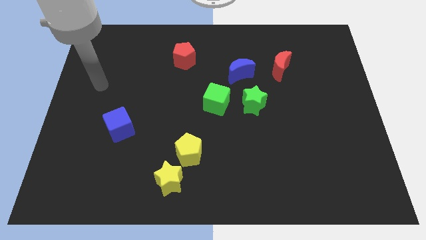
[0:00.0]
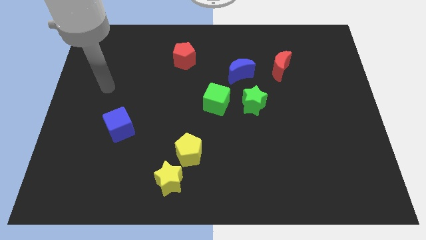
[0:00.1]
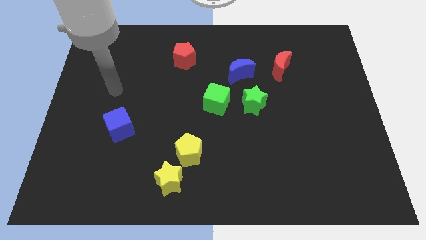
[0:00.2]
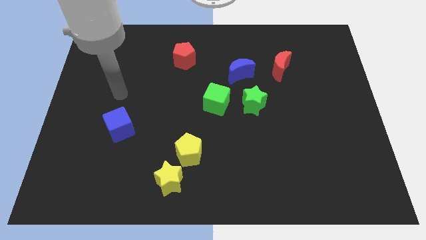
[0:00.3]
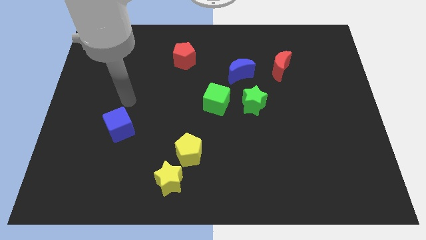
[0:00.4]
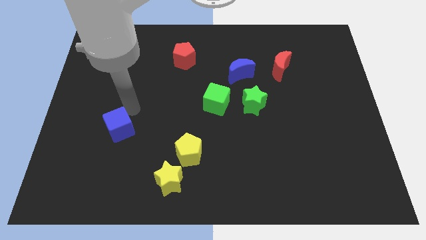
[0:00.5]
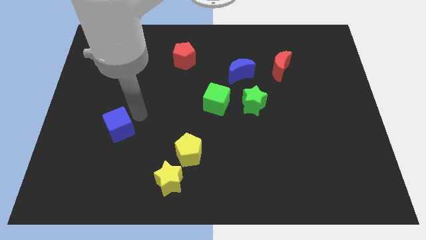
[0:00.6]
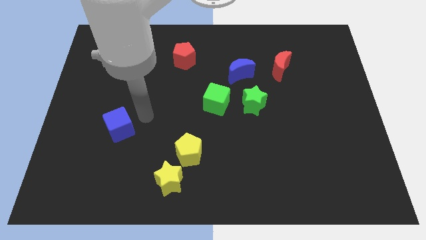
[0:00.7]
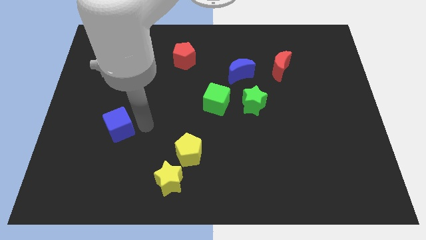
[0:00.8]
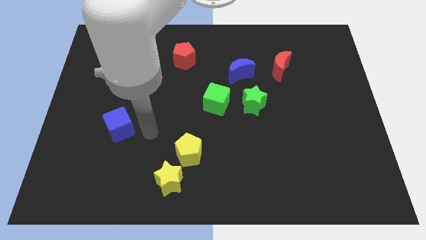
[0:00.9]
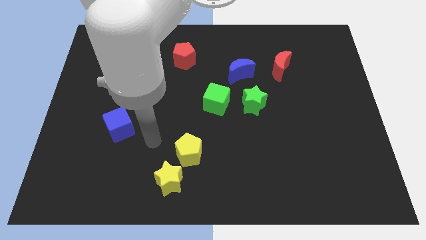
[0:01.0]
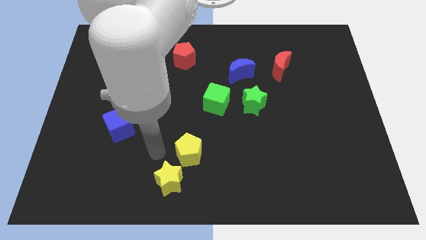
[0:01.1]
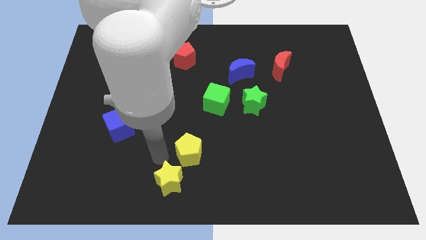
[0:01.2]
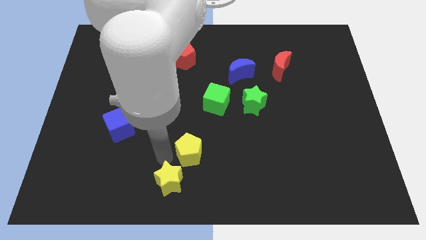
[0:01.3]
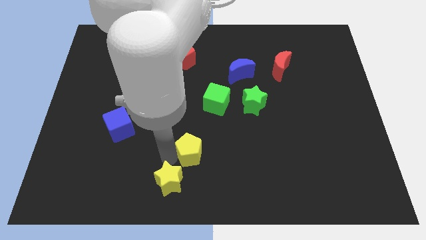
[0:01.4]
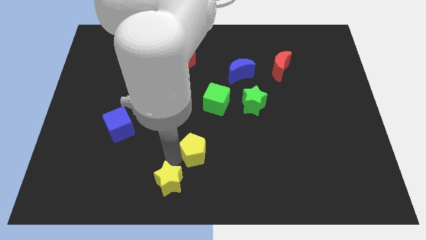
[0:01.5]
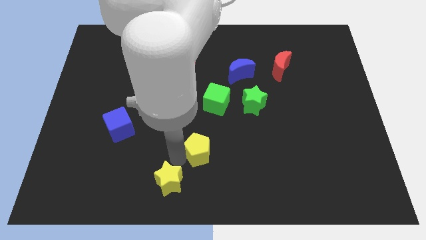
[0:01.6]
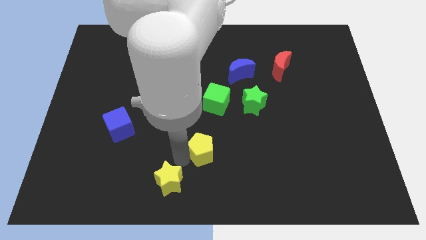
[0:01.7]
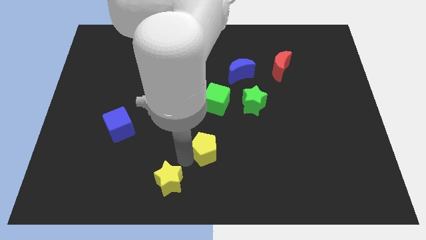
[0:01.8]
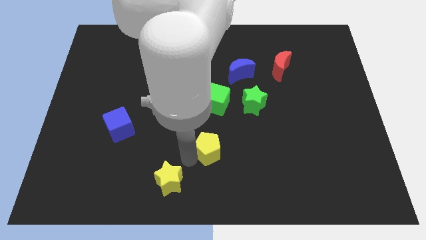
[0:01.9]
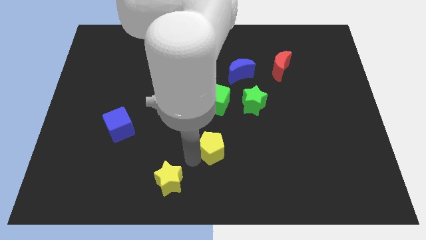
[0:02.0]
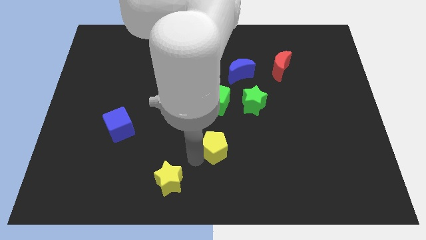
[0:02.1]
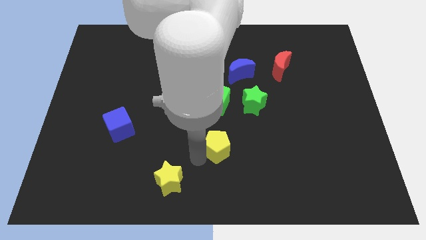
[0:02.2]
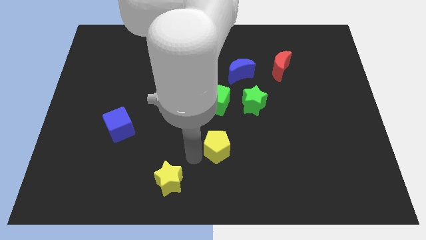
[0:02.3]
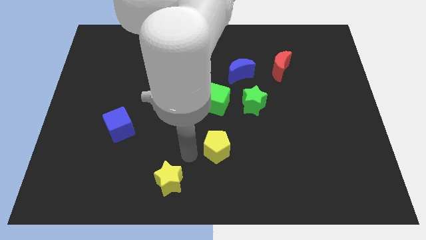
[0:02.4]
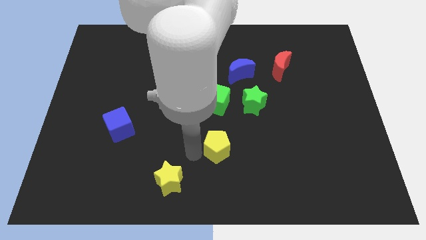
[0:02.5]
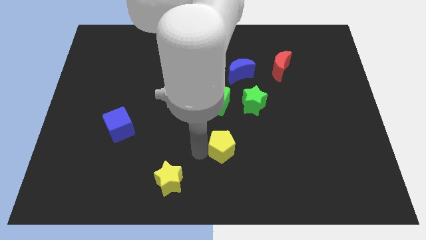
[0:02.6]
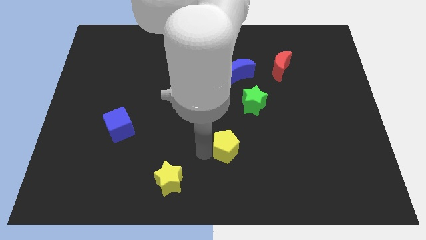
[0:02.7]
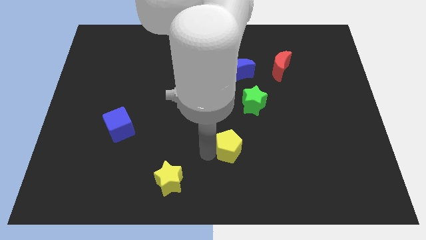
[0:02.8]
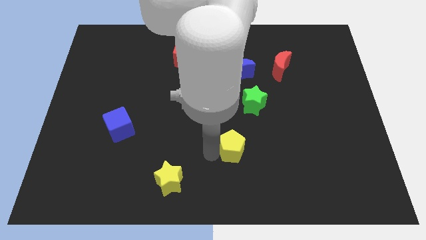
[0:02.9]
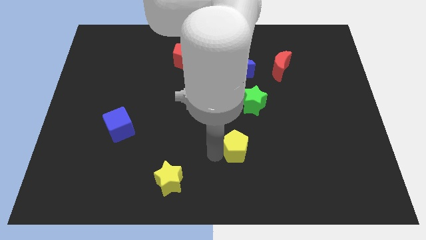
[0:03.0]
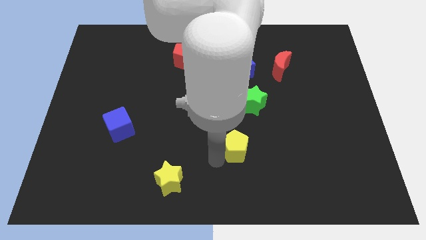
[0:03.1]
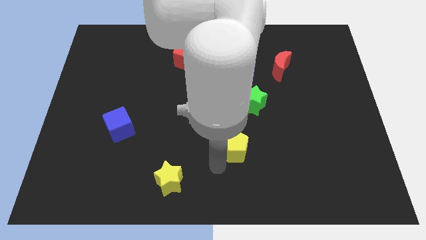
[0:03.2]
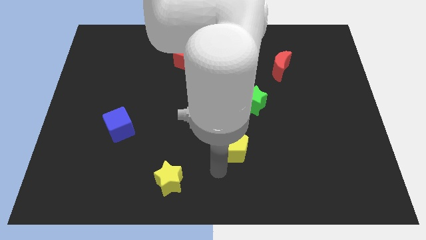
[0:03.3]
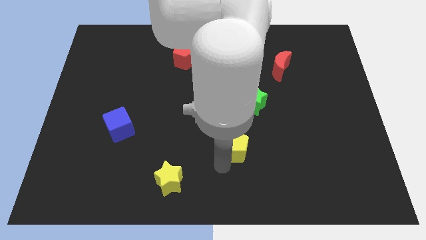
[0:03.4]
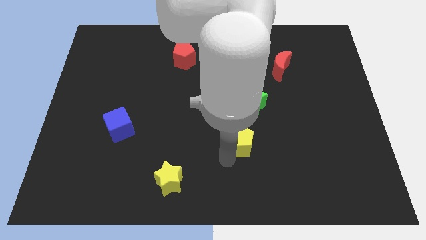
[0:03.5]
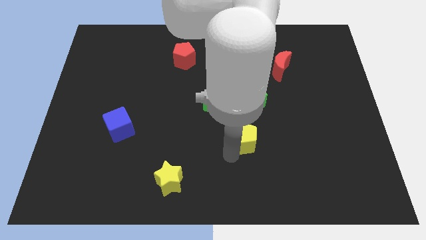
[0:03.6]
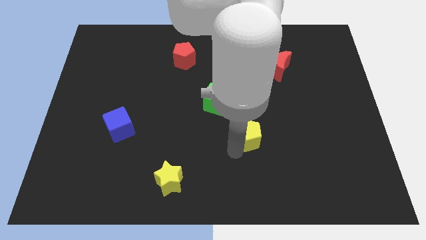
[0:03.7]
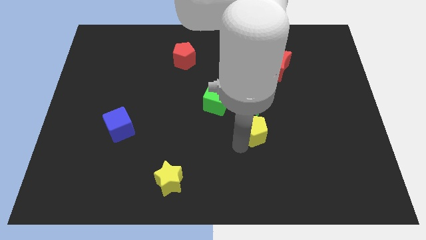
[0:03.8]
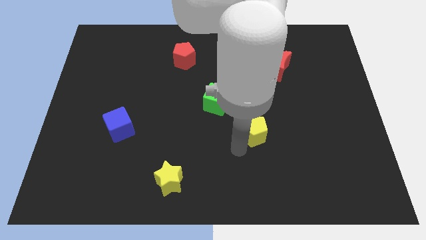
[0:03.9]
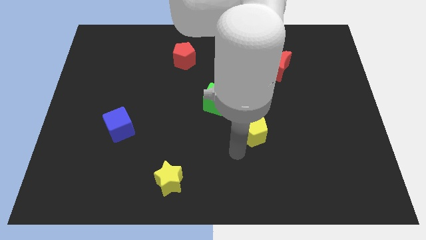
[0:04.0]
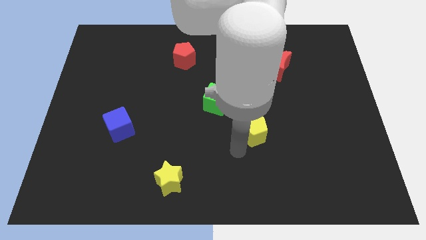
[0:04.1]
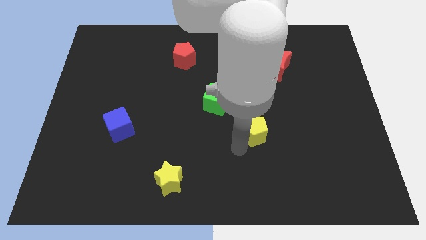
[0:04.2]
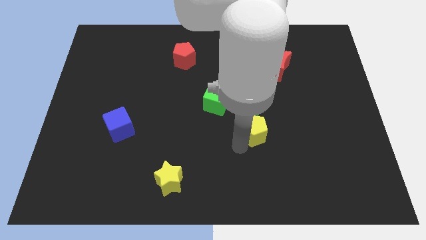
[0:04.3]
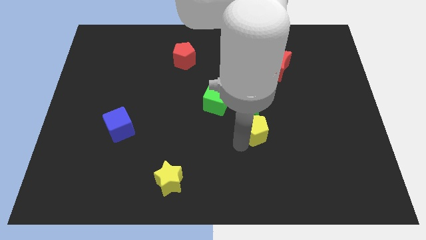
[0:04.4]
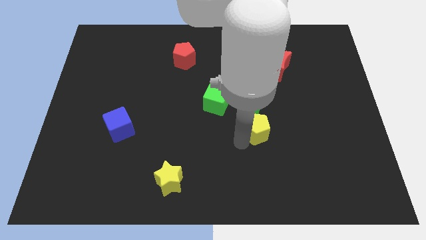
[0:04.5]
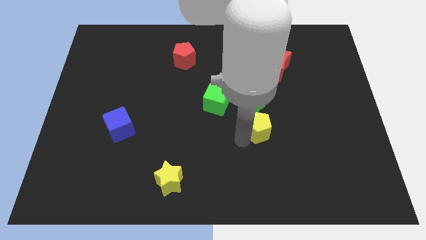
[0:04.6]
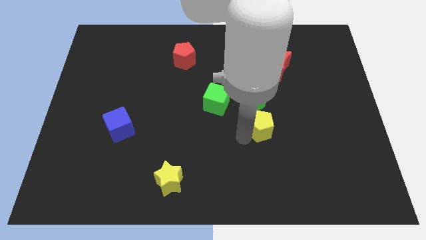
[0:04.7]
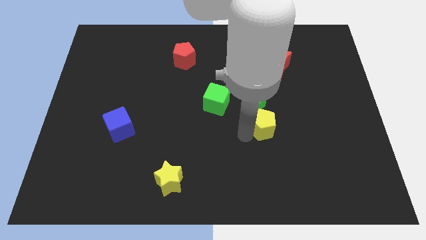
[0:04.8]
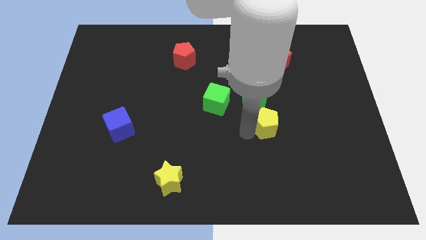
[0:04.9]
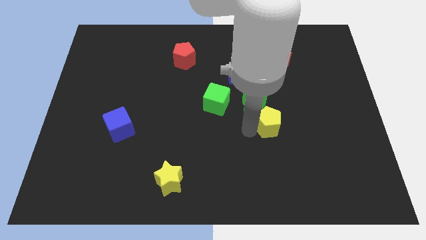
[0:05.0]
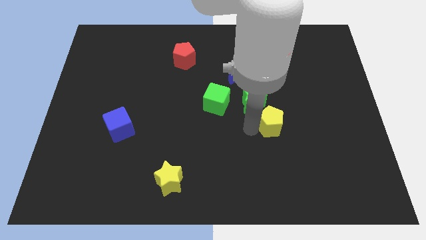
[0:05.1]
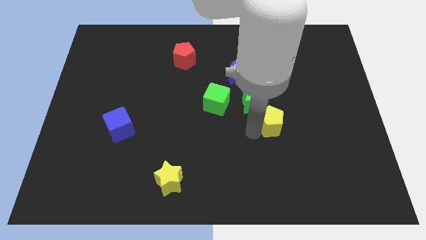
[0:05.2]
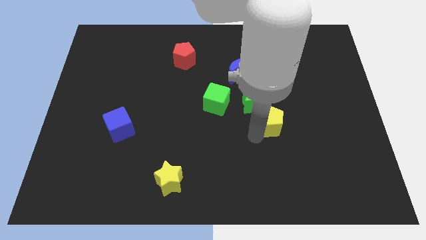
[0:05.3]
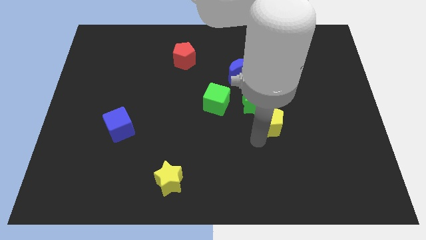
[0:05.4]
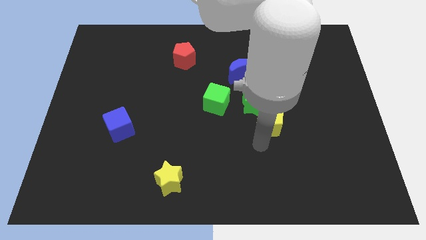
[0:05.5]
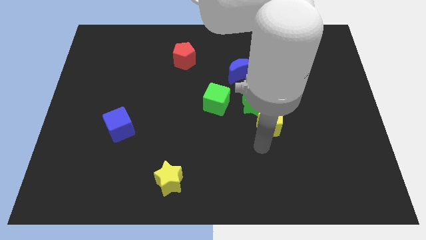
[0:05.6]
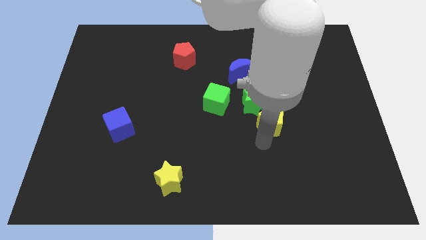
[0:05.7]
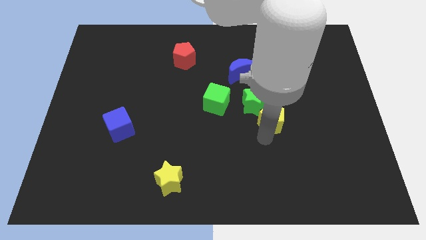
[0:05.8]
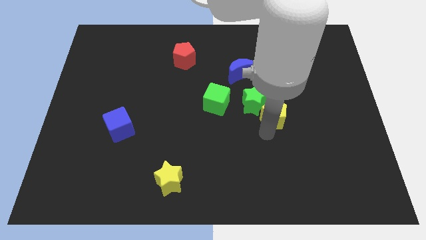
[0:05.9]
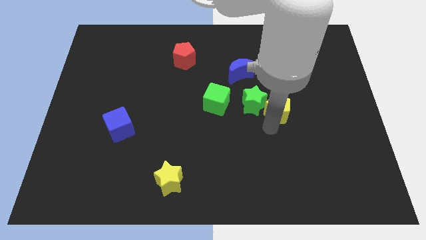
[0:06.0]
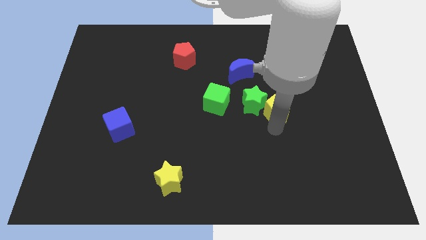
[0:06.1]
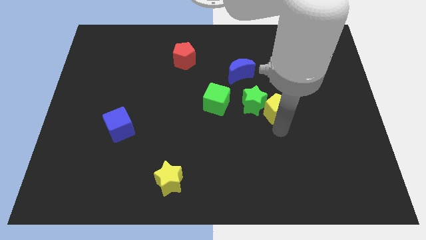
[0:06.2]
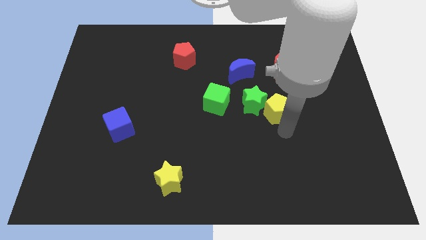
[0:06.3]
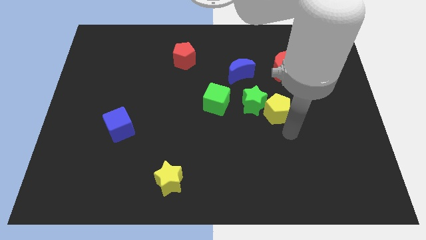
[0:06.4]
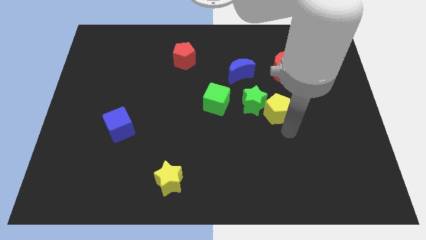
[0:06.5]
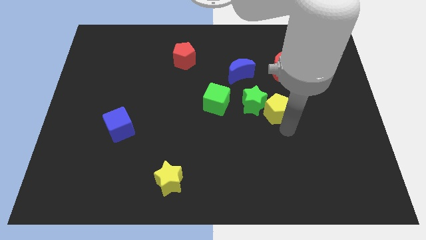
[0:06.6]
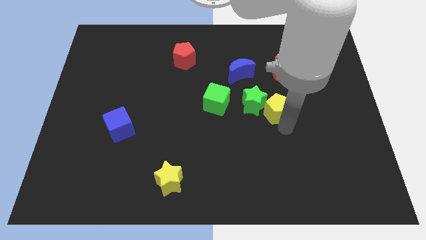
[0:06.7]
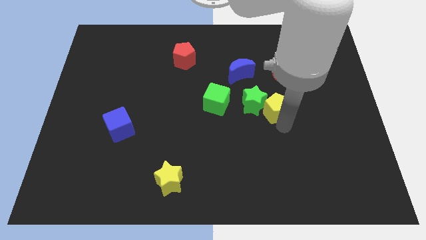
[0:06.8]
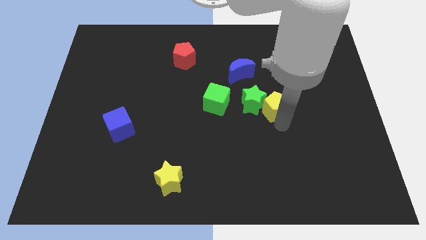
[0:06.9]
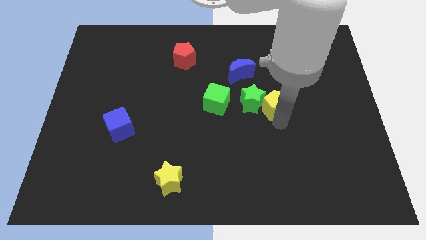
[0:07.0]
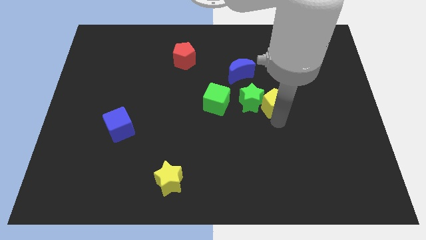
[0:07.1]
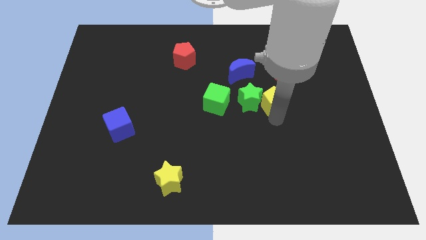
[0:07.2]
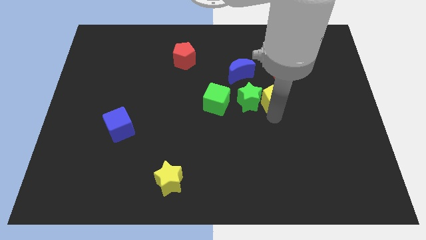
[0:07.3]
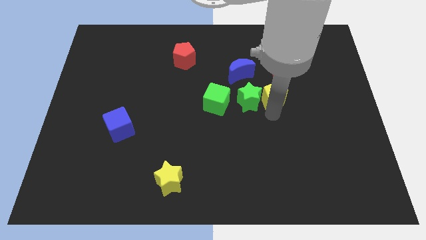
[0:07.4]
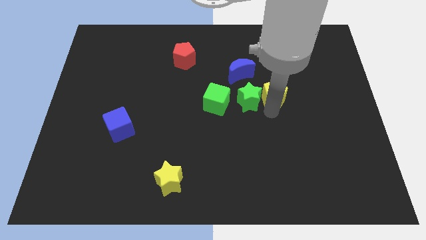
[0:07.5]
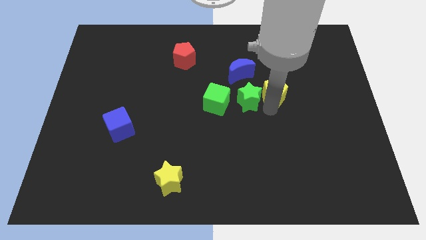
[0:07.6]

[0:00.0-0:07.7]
move the yellow pentagon to the bottom left of the red moon

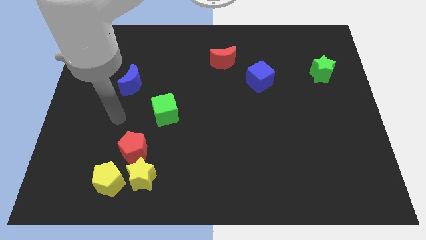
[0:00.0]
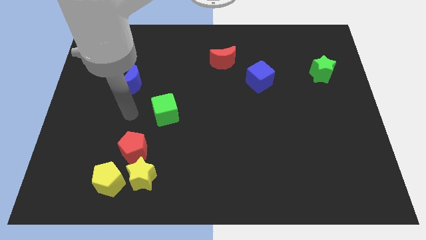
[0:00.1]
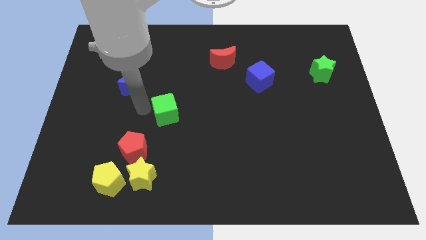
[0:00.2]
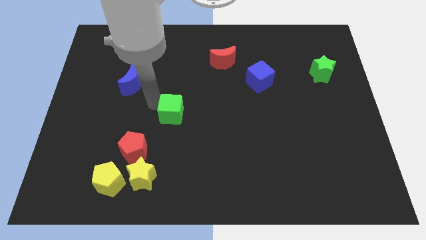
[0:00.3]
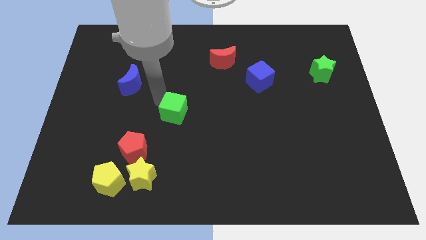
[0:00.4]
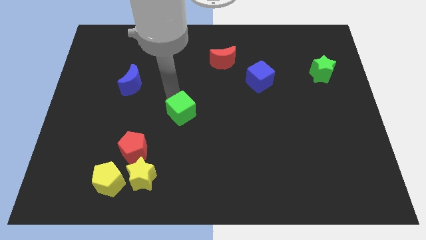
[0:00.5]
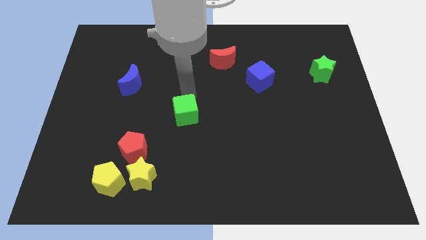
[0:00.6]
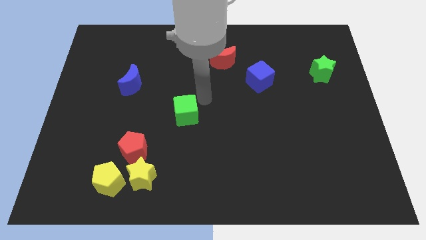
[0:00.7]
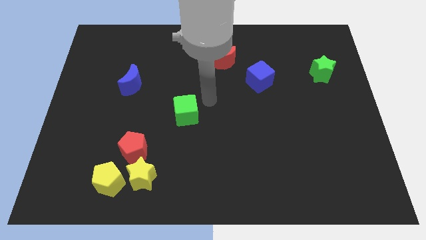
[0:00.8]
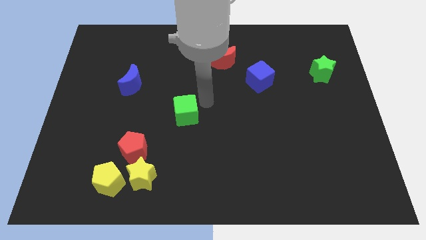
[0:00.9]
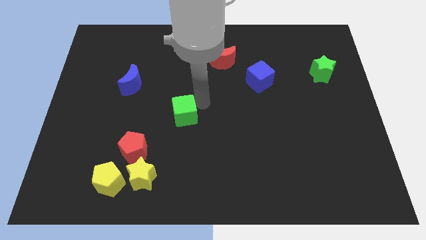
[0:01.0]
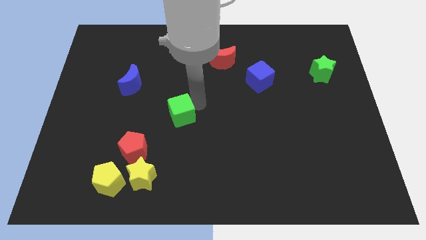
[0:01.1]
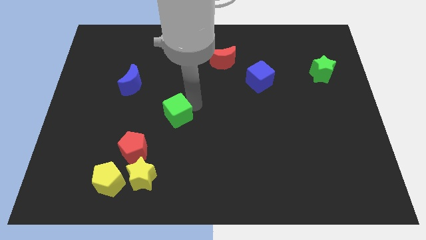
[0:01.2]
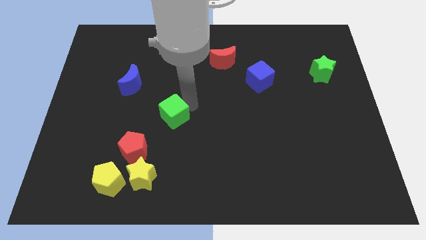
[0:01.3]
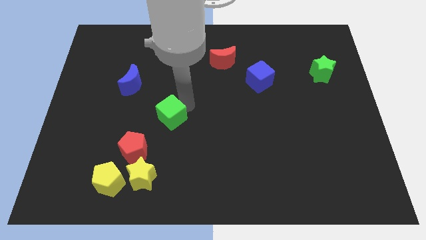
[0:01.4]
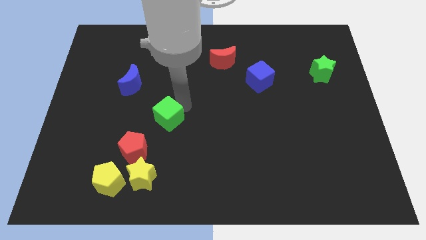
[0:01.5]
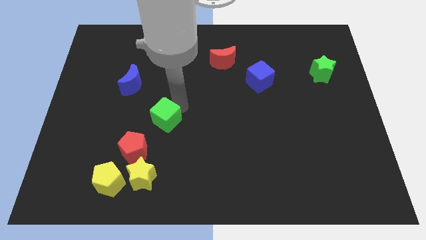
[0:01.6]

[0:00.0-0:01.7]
push the green cube to the top side of the yellow star
